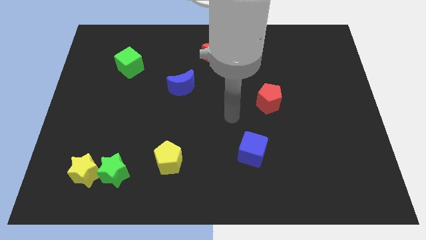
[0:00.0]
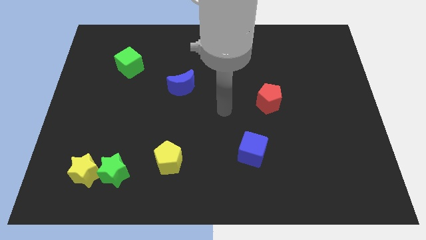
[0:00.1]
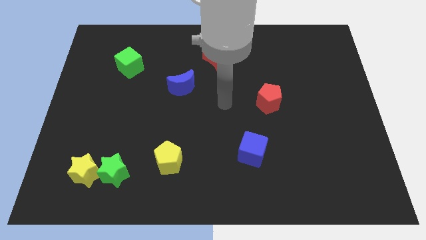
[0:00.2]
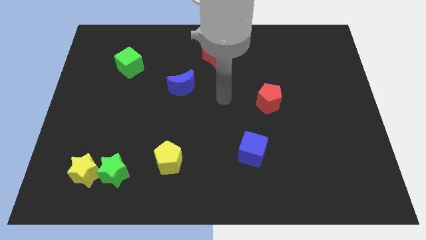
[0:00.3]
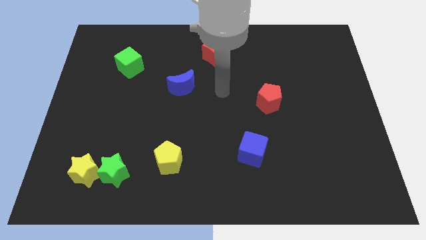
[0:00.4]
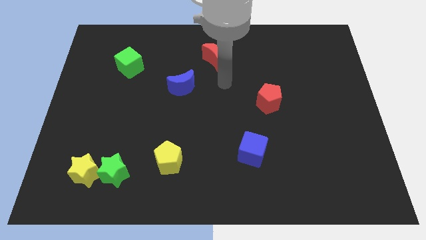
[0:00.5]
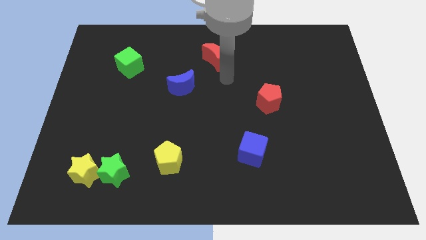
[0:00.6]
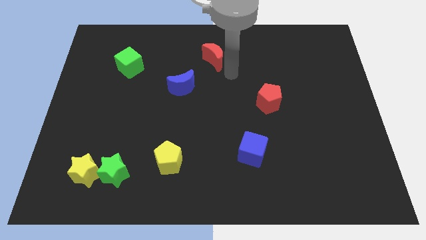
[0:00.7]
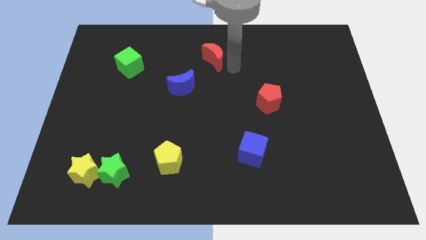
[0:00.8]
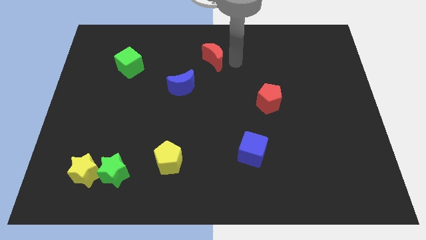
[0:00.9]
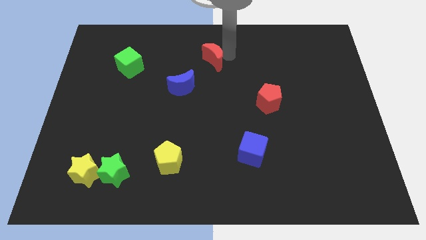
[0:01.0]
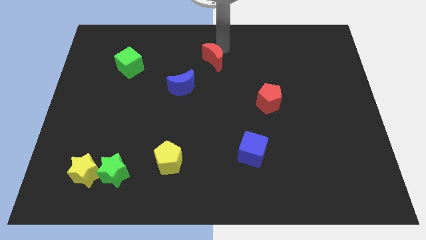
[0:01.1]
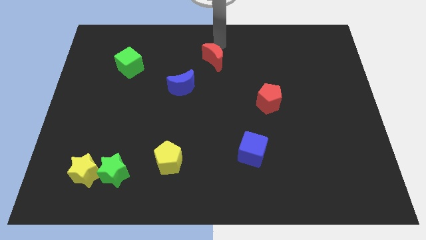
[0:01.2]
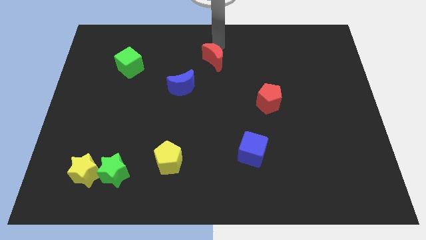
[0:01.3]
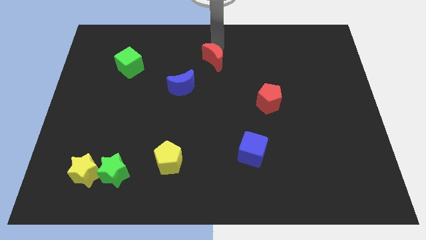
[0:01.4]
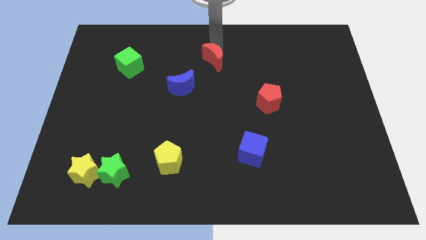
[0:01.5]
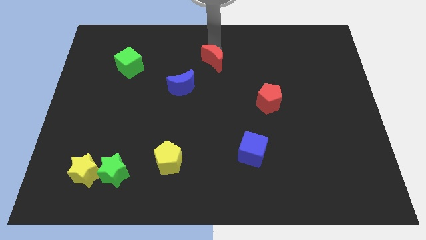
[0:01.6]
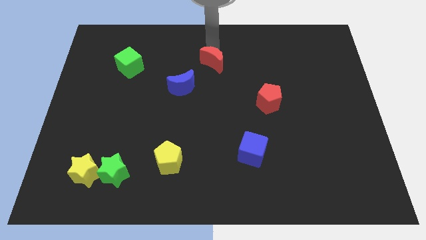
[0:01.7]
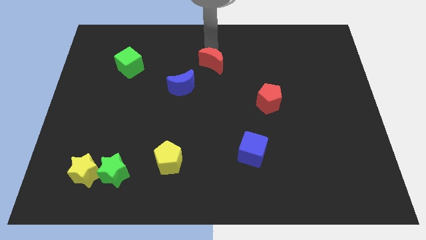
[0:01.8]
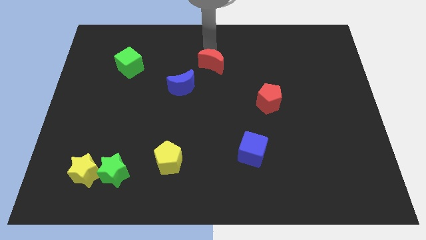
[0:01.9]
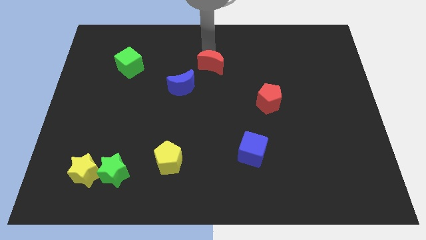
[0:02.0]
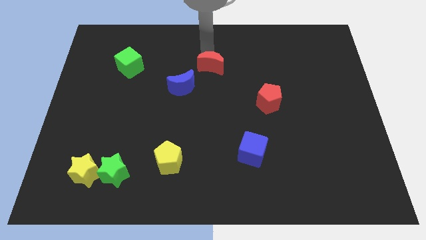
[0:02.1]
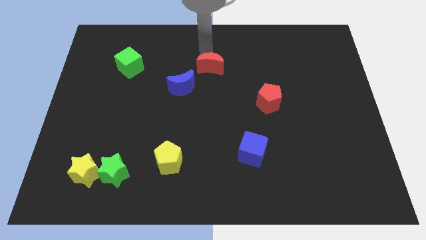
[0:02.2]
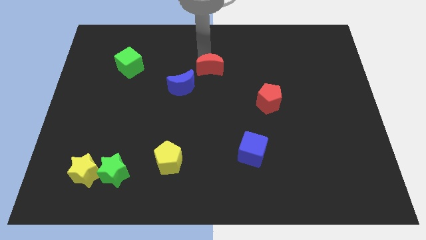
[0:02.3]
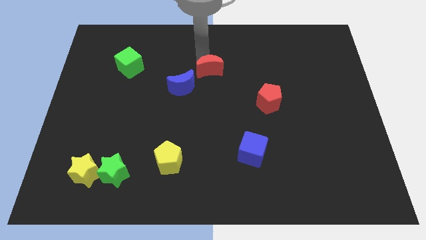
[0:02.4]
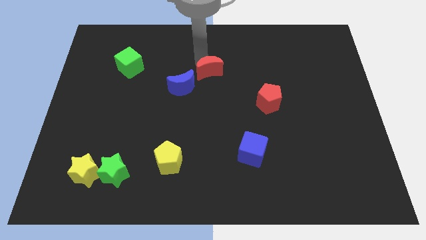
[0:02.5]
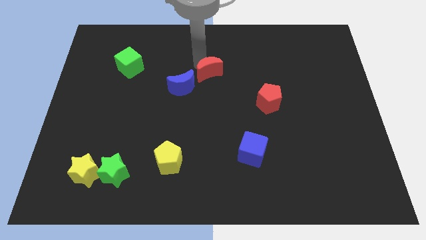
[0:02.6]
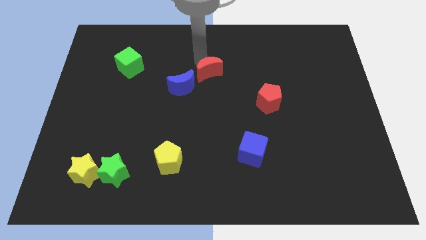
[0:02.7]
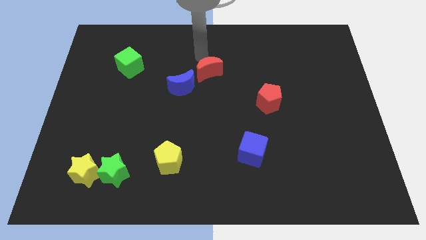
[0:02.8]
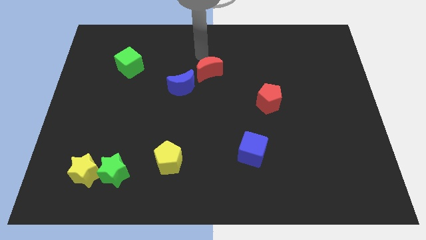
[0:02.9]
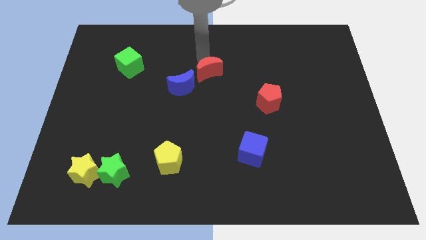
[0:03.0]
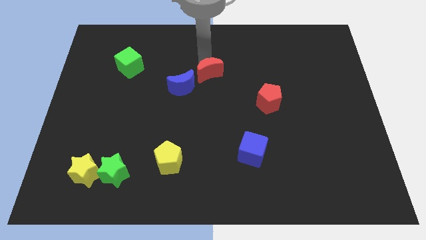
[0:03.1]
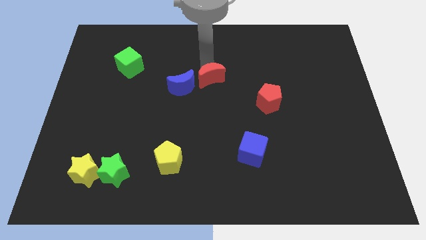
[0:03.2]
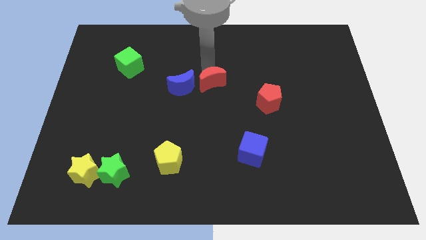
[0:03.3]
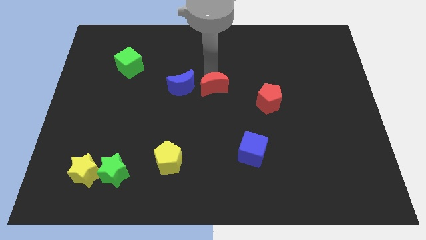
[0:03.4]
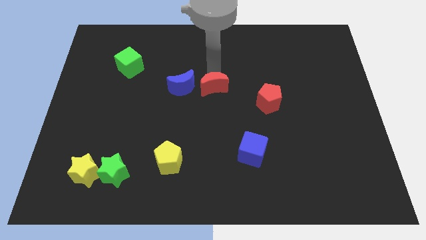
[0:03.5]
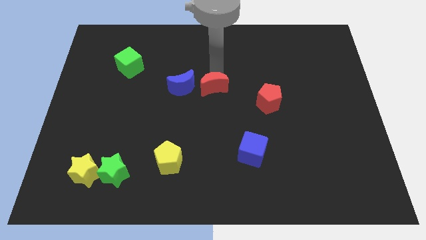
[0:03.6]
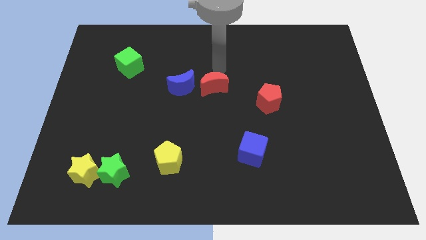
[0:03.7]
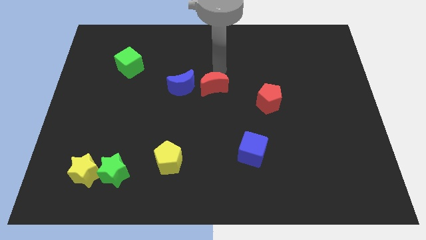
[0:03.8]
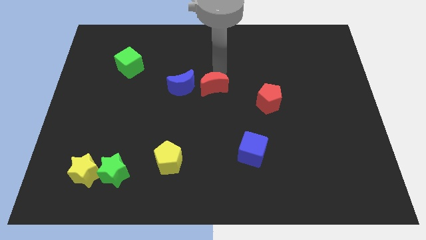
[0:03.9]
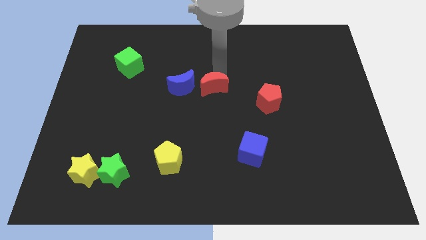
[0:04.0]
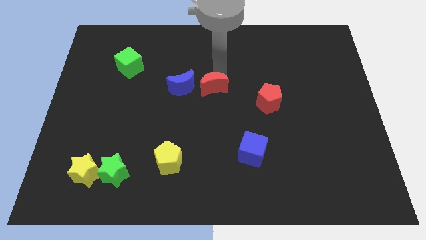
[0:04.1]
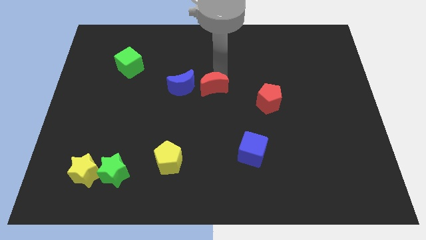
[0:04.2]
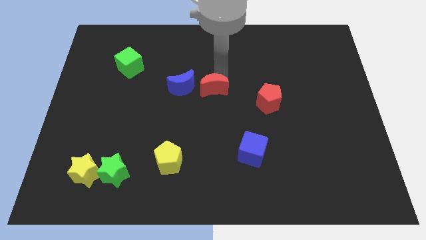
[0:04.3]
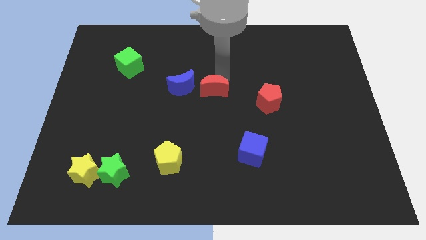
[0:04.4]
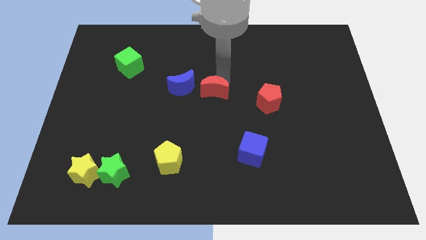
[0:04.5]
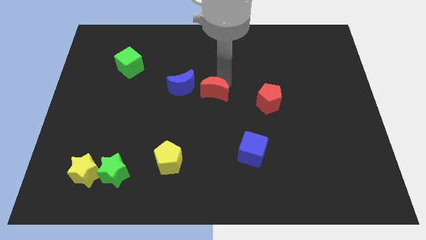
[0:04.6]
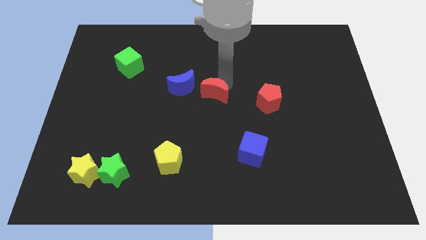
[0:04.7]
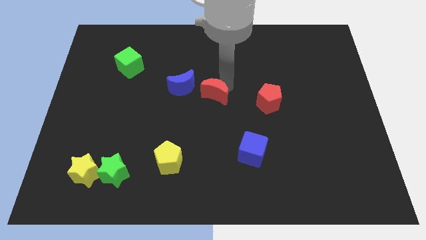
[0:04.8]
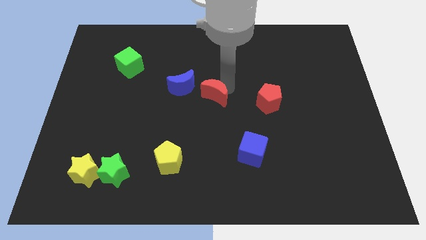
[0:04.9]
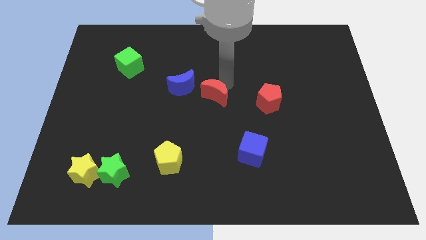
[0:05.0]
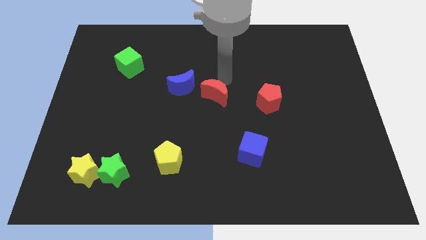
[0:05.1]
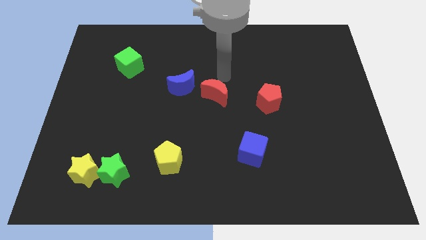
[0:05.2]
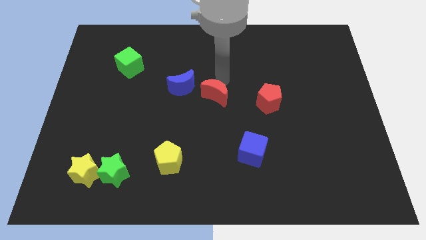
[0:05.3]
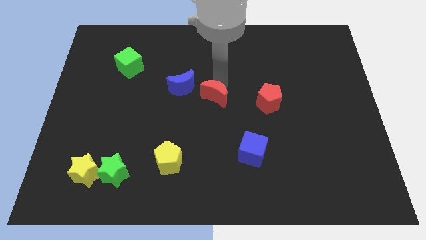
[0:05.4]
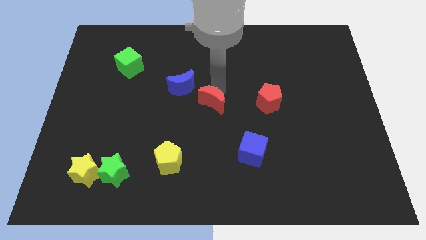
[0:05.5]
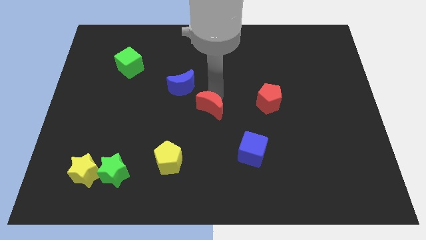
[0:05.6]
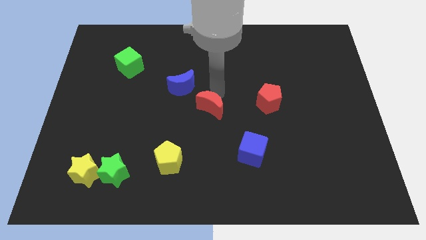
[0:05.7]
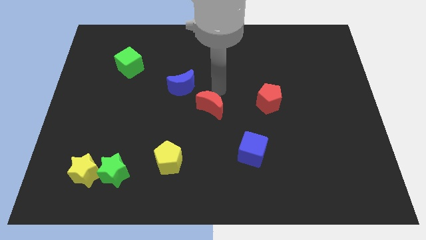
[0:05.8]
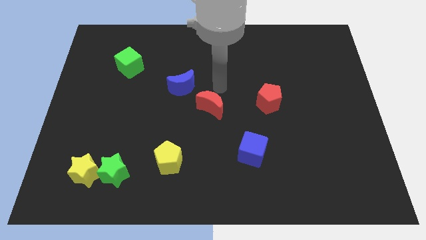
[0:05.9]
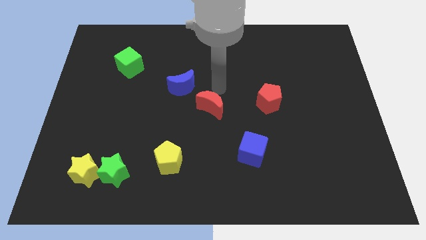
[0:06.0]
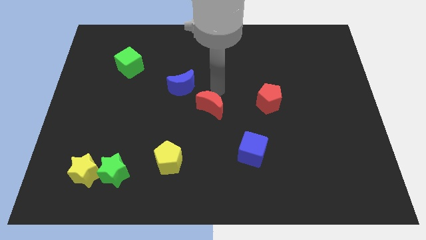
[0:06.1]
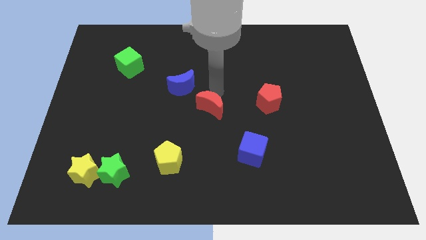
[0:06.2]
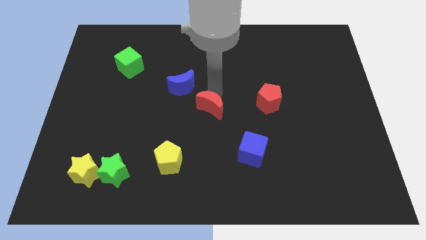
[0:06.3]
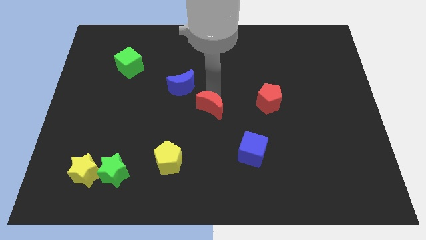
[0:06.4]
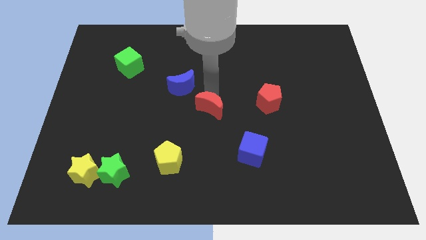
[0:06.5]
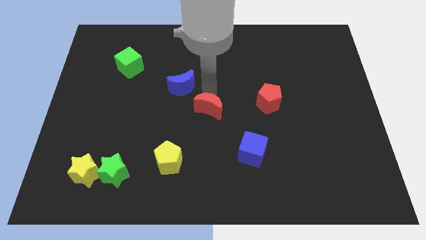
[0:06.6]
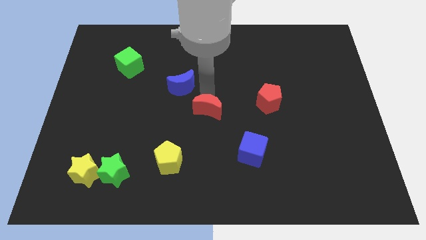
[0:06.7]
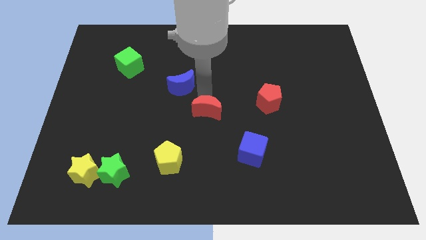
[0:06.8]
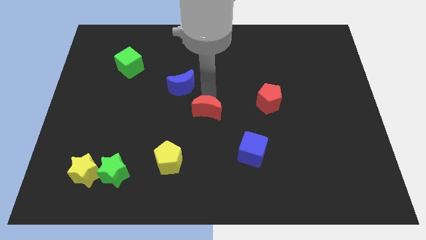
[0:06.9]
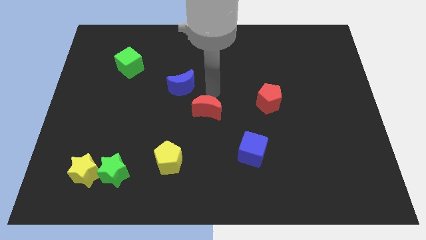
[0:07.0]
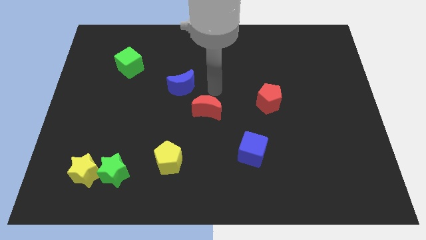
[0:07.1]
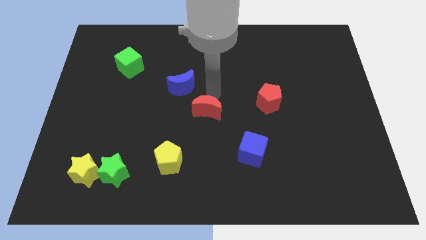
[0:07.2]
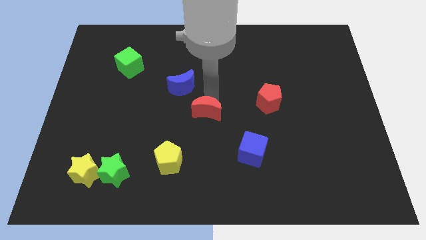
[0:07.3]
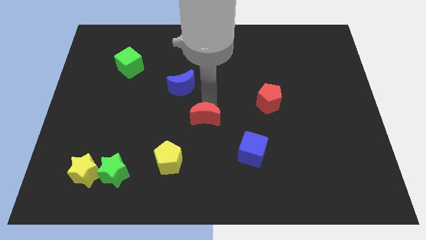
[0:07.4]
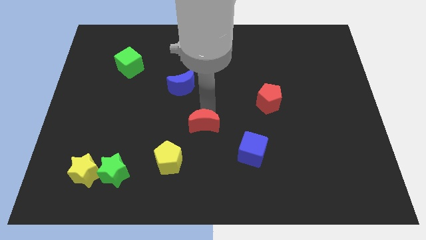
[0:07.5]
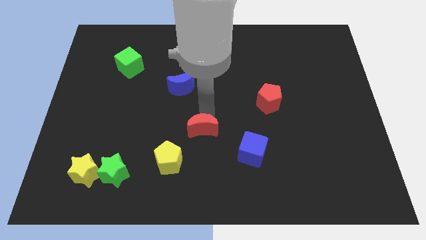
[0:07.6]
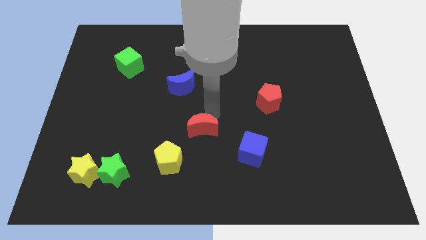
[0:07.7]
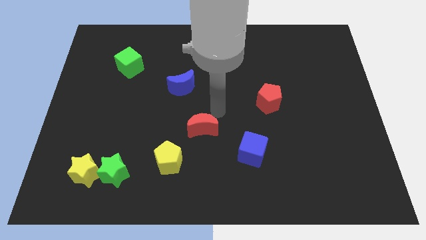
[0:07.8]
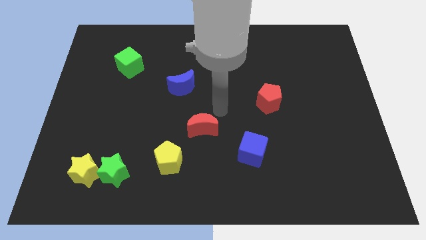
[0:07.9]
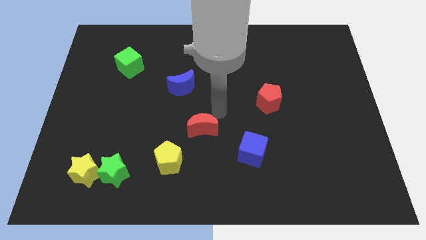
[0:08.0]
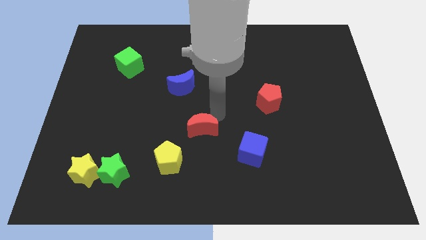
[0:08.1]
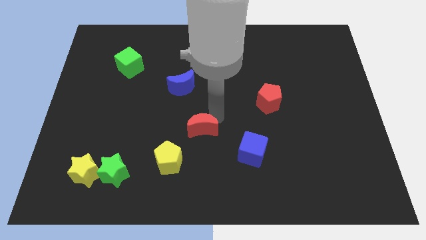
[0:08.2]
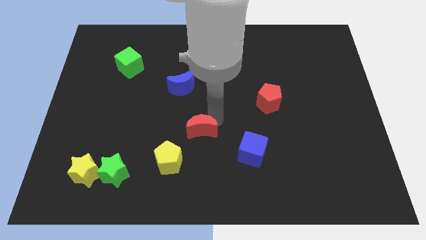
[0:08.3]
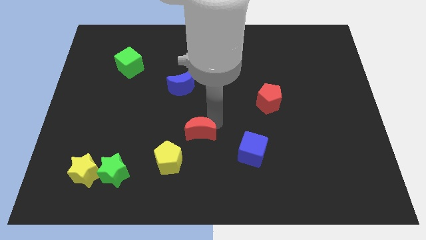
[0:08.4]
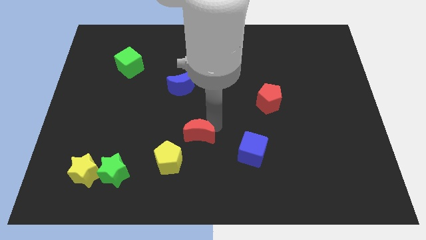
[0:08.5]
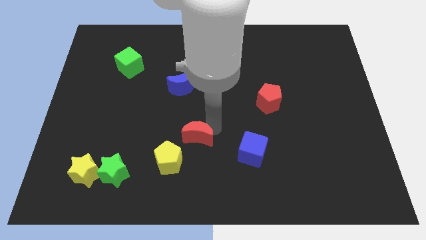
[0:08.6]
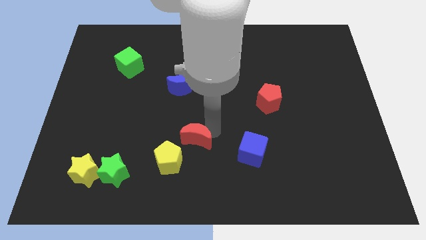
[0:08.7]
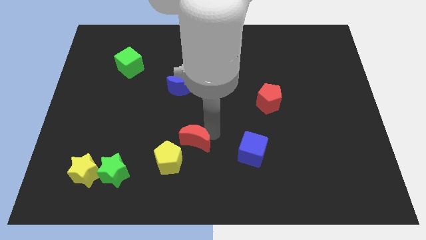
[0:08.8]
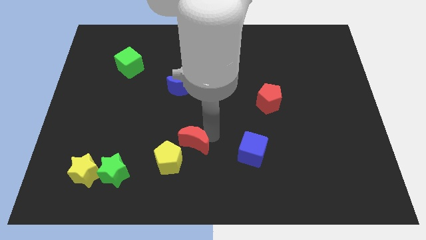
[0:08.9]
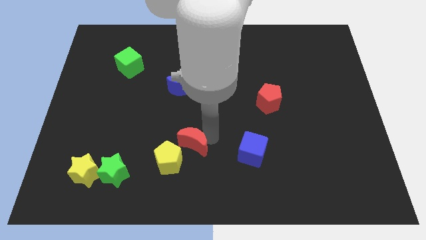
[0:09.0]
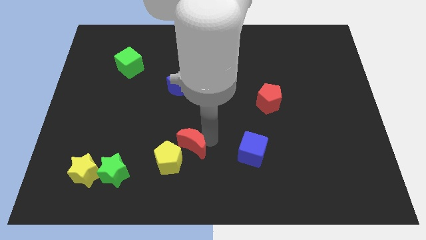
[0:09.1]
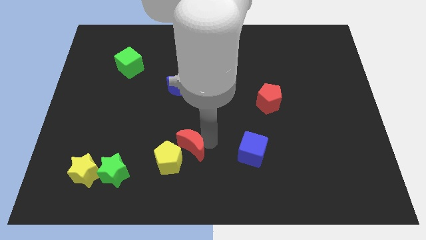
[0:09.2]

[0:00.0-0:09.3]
slide the red moon to the yellow pentagon
